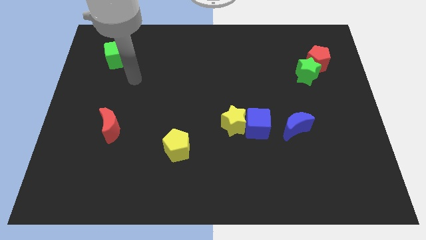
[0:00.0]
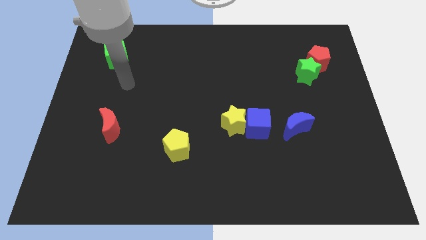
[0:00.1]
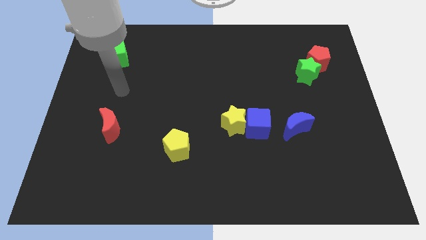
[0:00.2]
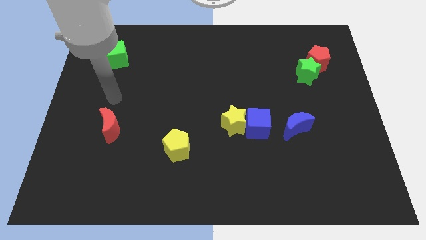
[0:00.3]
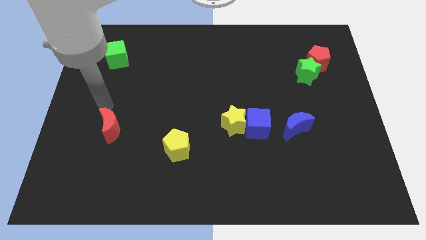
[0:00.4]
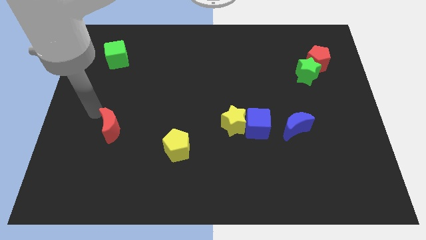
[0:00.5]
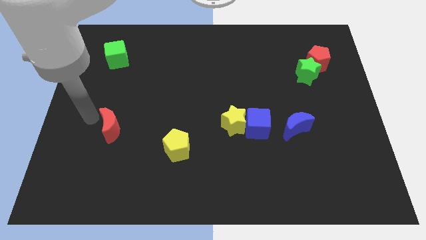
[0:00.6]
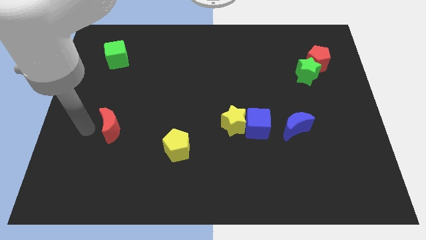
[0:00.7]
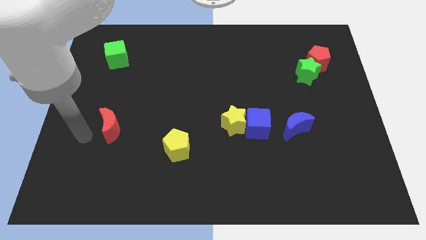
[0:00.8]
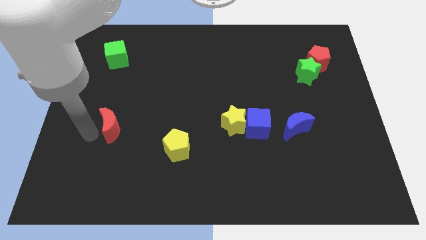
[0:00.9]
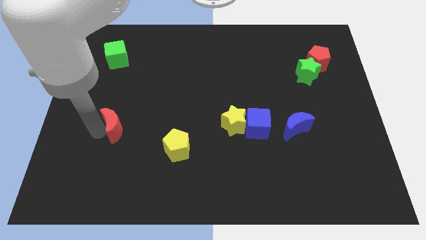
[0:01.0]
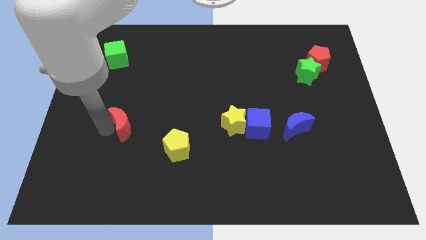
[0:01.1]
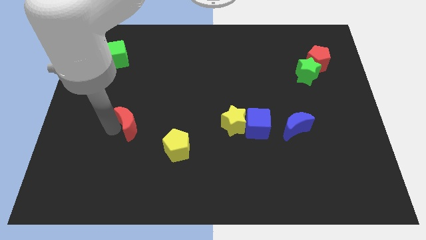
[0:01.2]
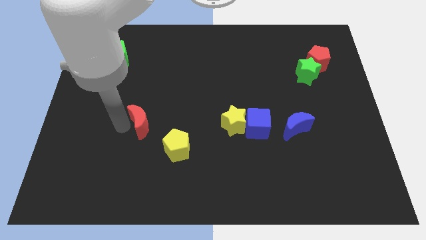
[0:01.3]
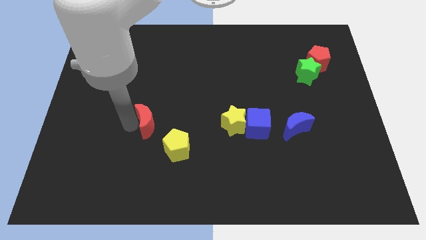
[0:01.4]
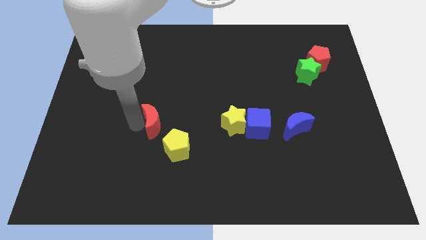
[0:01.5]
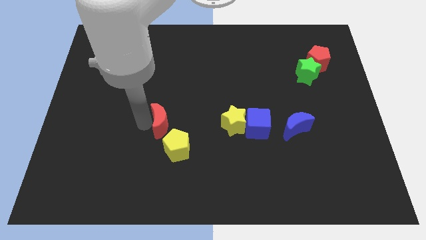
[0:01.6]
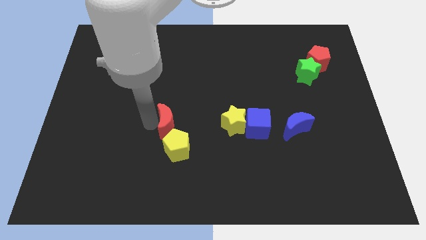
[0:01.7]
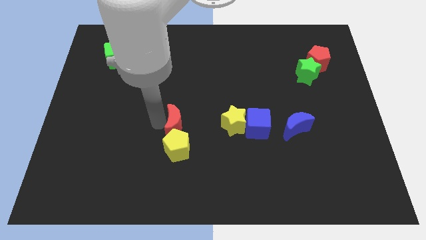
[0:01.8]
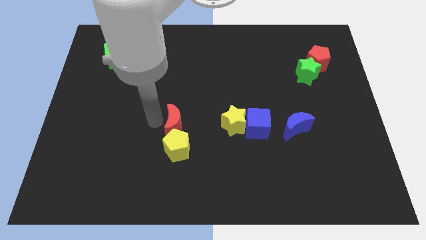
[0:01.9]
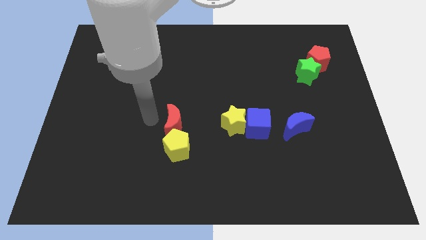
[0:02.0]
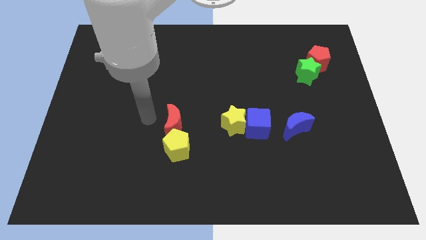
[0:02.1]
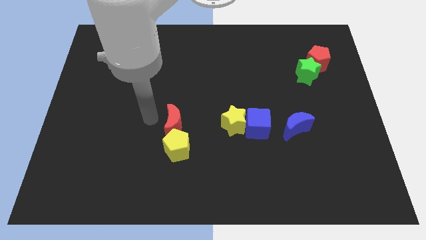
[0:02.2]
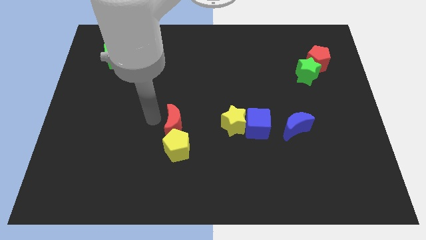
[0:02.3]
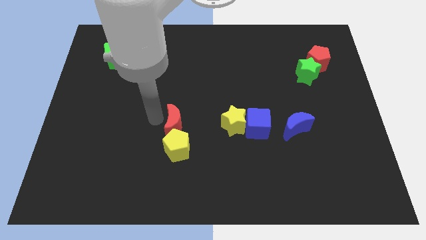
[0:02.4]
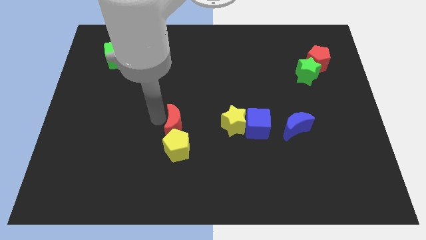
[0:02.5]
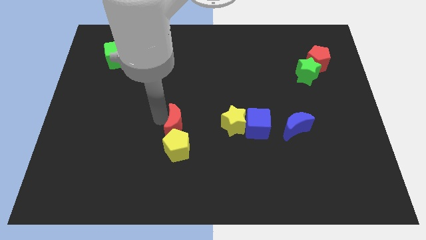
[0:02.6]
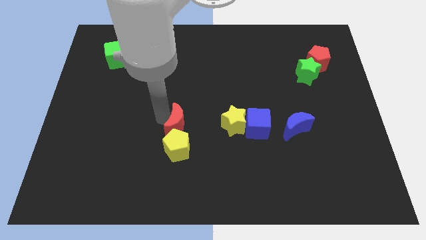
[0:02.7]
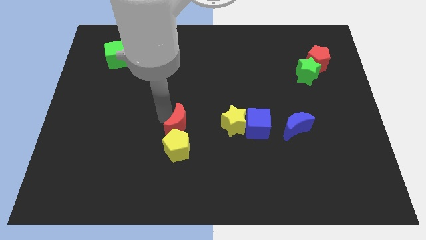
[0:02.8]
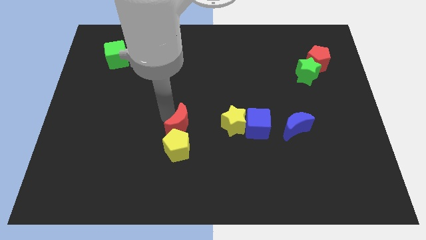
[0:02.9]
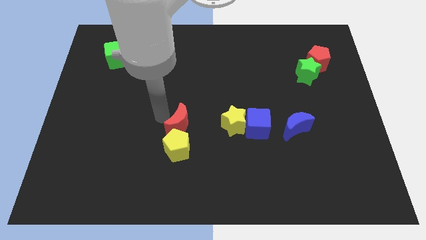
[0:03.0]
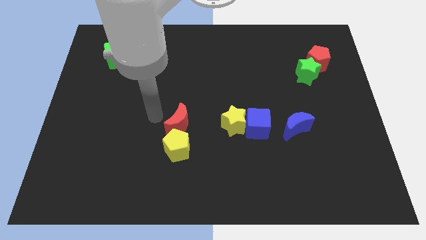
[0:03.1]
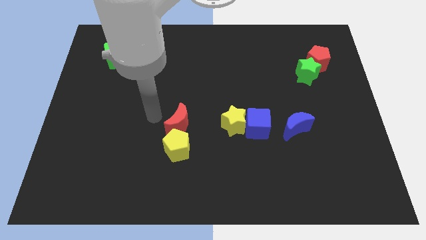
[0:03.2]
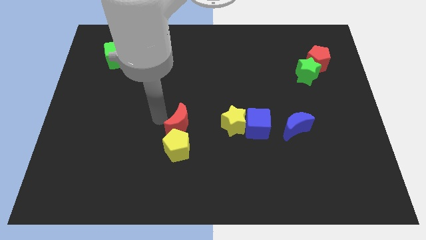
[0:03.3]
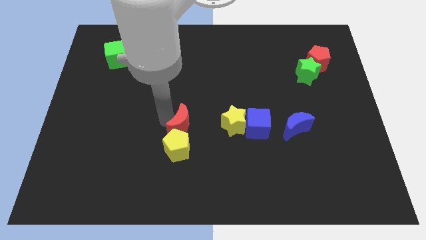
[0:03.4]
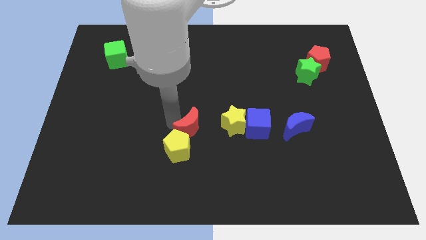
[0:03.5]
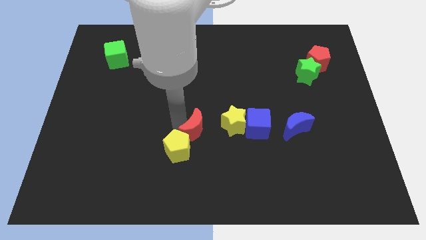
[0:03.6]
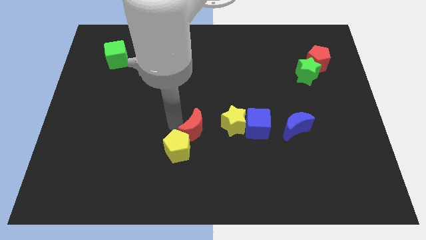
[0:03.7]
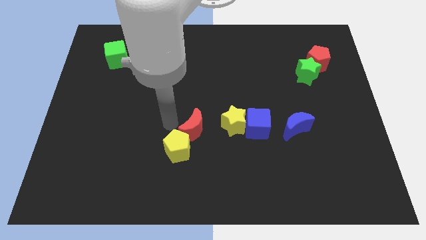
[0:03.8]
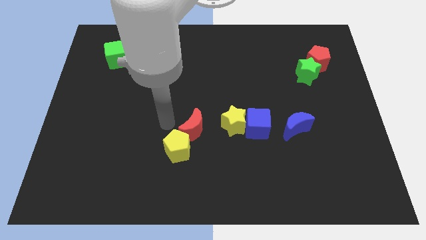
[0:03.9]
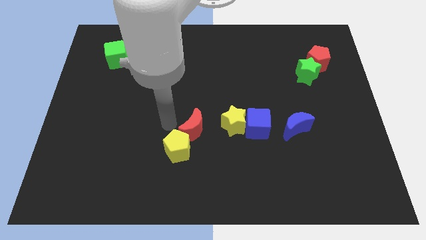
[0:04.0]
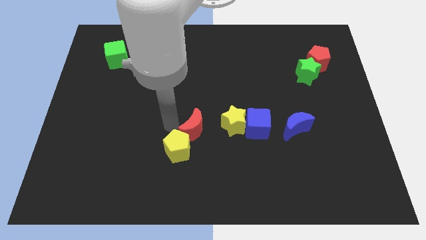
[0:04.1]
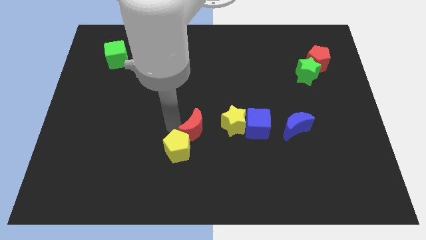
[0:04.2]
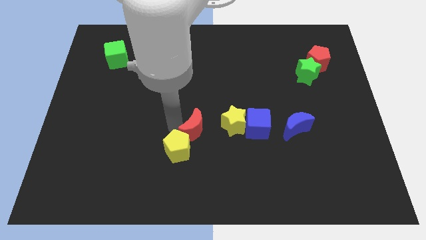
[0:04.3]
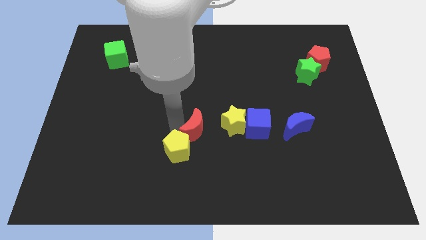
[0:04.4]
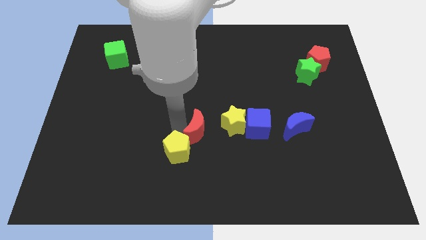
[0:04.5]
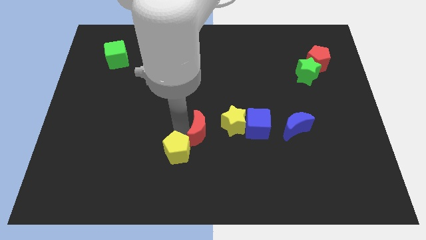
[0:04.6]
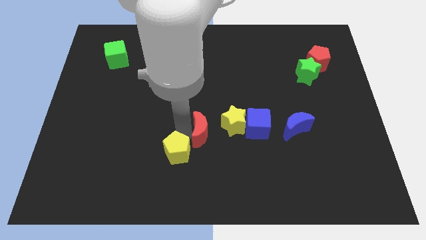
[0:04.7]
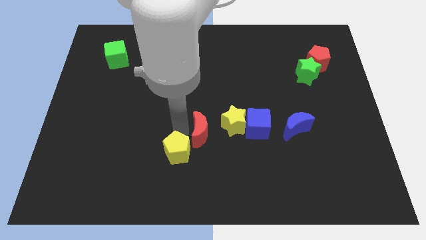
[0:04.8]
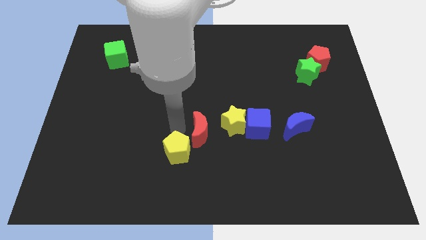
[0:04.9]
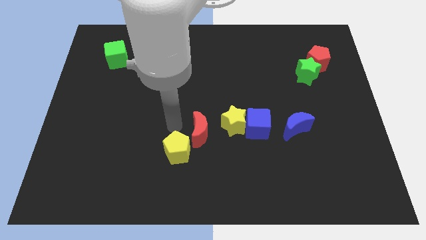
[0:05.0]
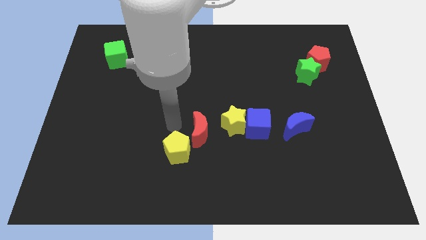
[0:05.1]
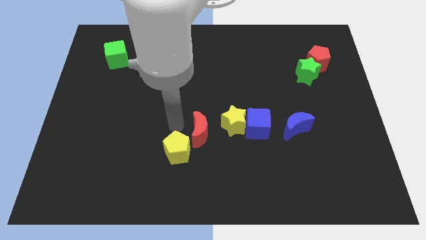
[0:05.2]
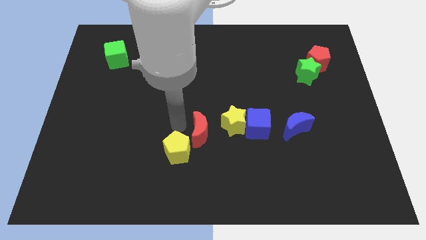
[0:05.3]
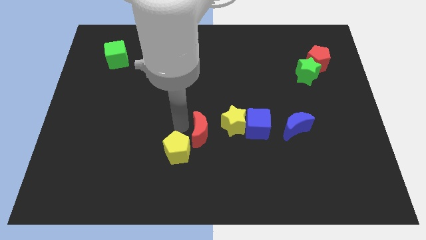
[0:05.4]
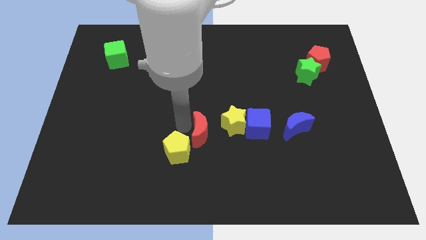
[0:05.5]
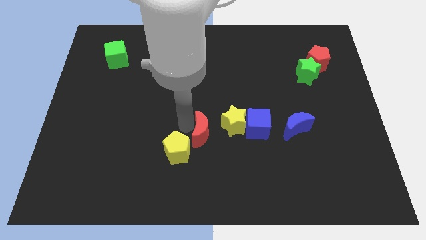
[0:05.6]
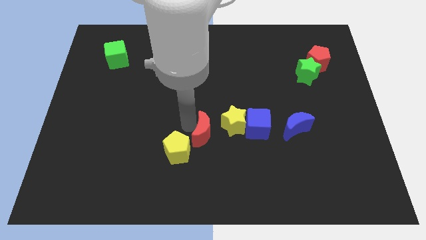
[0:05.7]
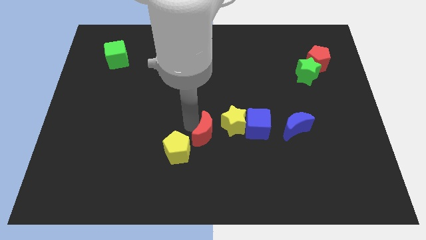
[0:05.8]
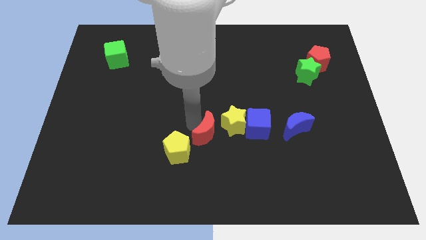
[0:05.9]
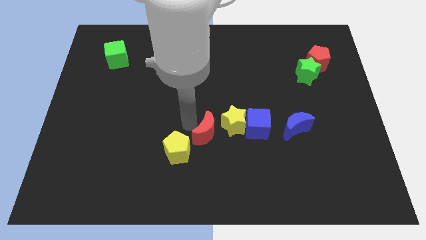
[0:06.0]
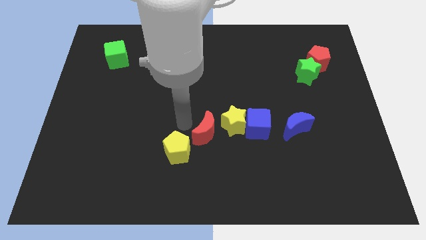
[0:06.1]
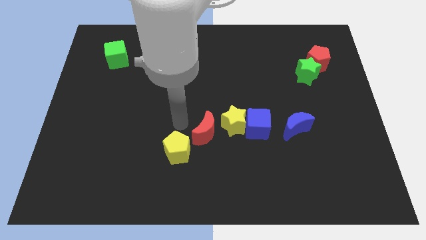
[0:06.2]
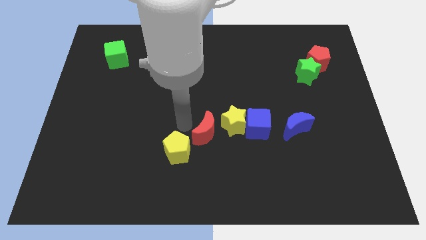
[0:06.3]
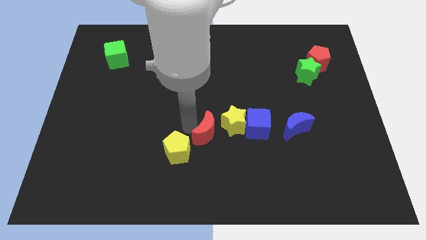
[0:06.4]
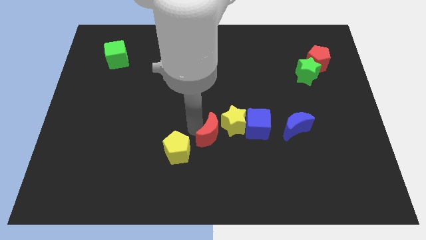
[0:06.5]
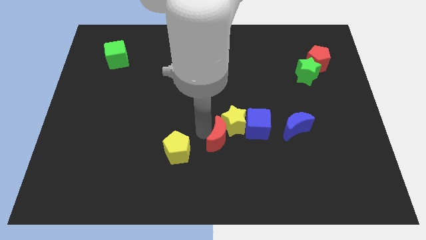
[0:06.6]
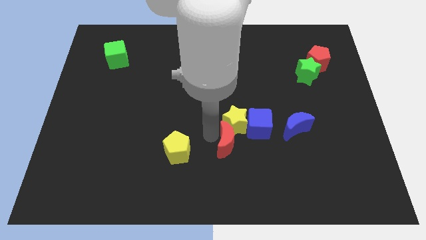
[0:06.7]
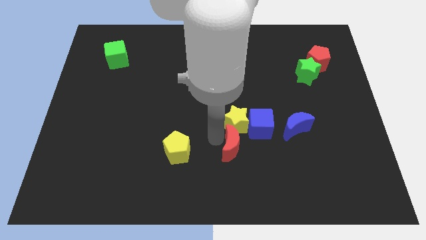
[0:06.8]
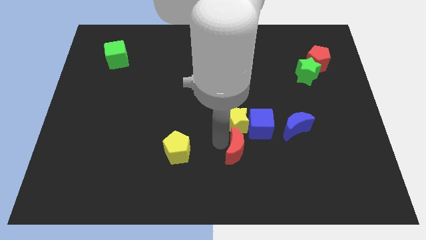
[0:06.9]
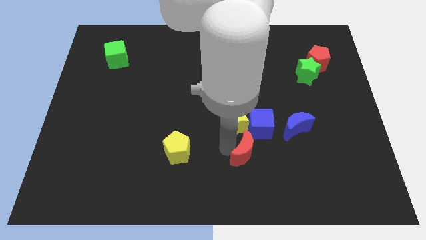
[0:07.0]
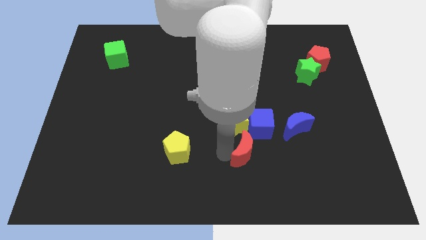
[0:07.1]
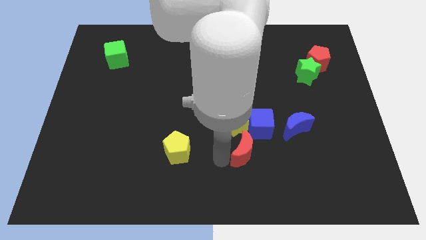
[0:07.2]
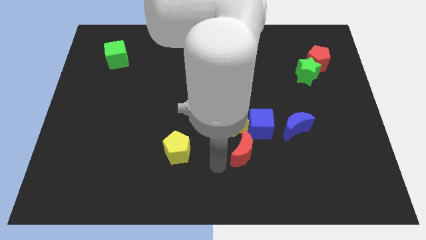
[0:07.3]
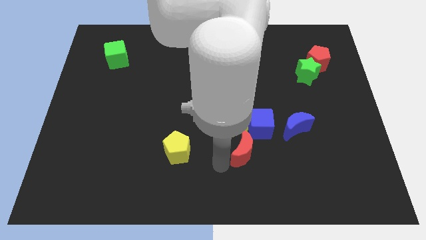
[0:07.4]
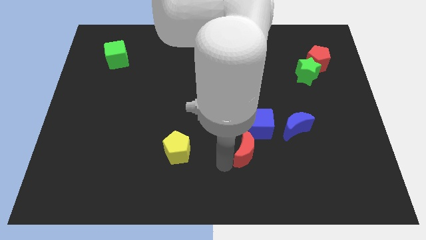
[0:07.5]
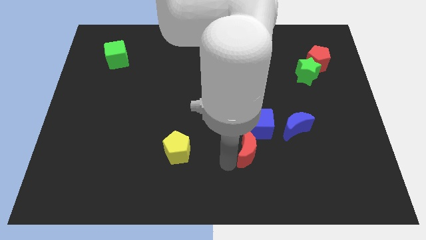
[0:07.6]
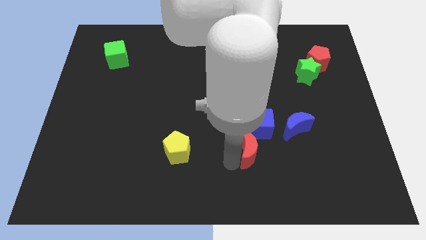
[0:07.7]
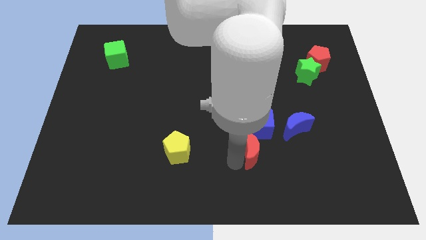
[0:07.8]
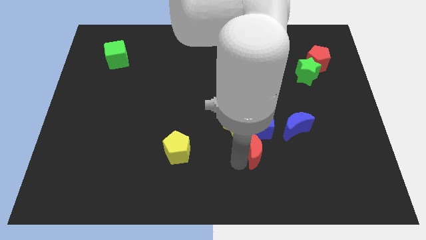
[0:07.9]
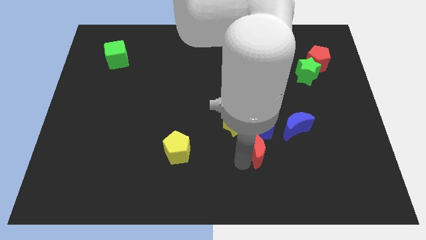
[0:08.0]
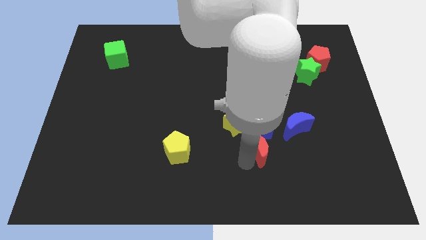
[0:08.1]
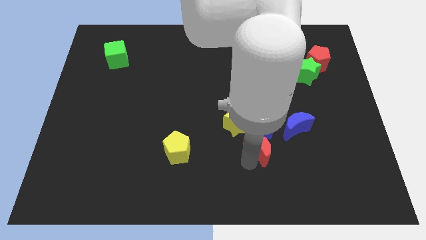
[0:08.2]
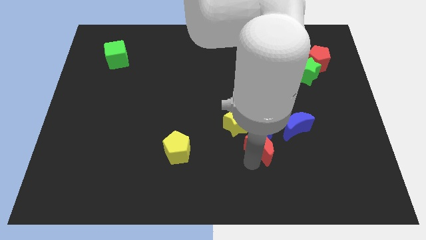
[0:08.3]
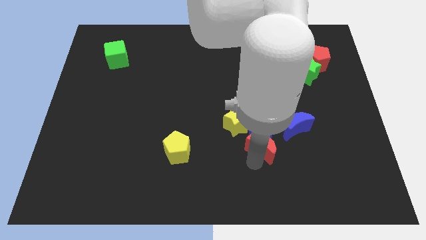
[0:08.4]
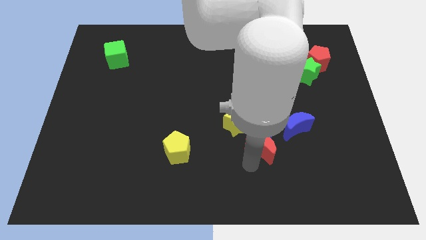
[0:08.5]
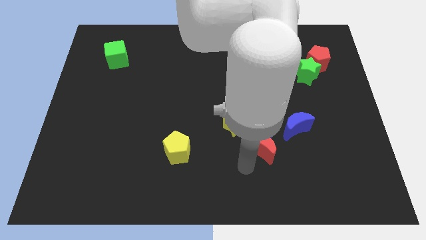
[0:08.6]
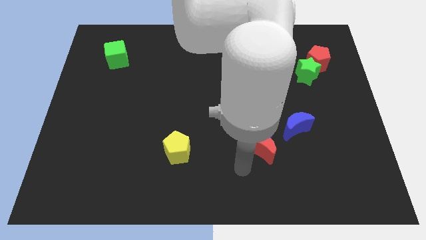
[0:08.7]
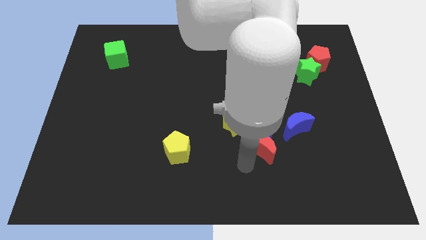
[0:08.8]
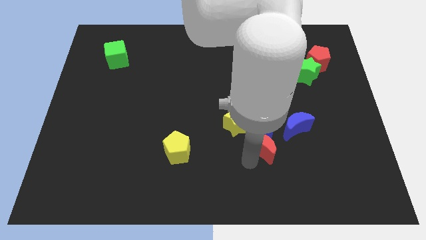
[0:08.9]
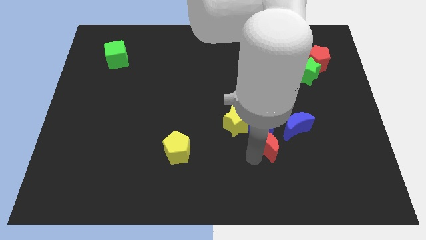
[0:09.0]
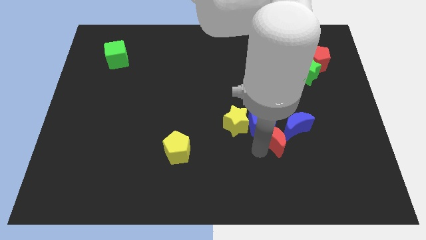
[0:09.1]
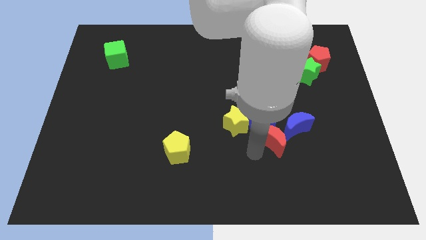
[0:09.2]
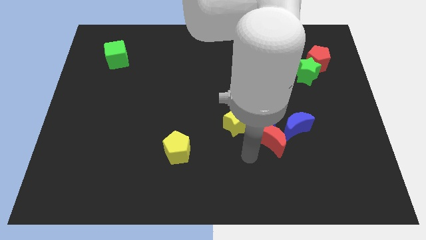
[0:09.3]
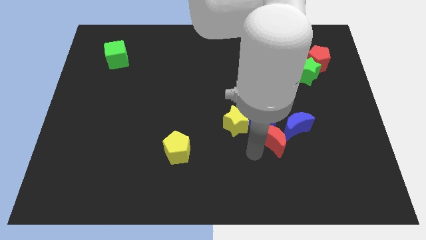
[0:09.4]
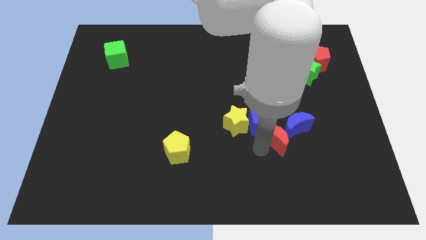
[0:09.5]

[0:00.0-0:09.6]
push the red moon to the blue moon
